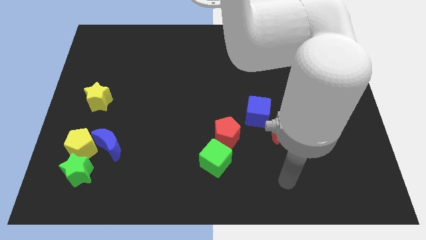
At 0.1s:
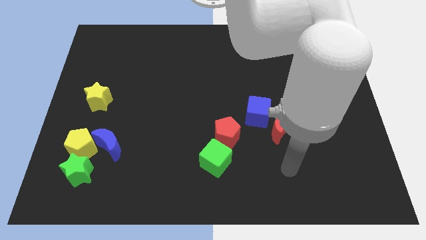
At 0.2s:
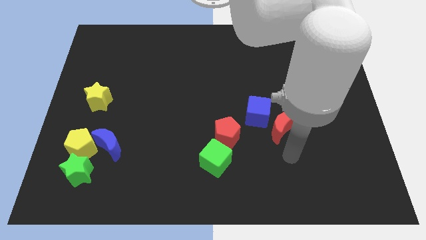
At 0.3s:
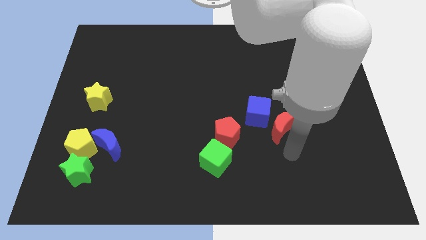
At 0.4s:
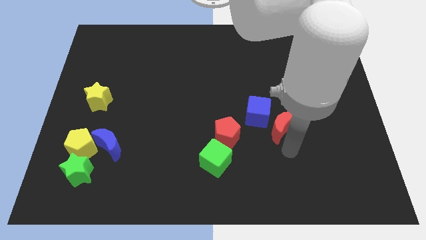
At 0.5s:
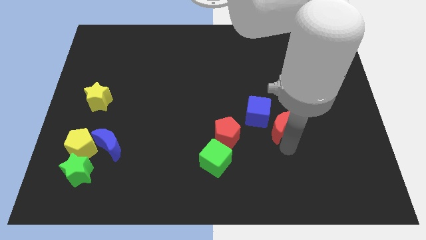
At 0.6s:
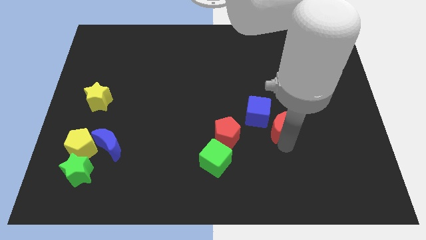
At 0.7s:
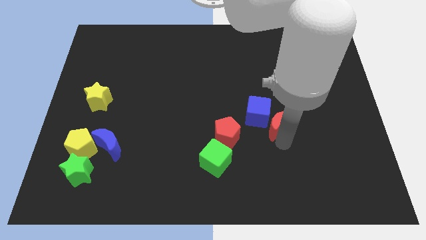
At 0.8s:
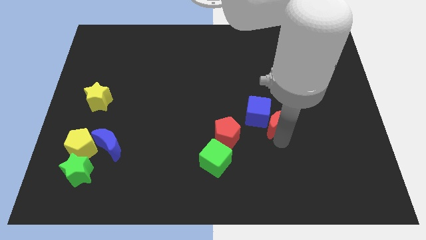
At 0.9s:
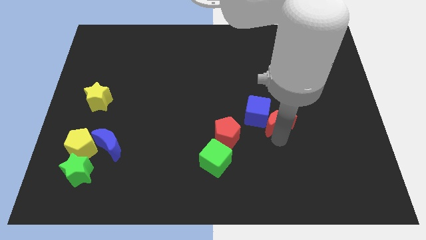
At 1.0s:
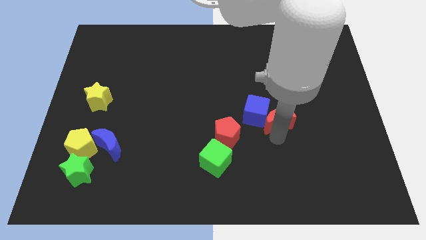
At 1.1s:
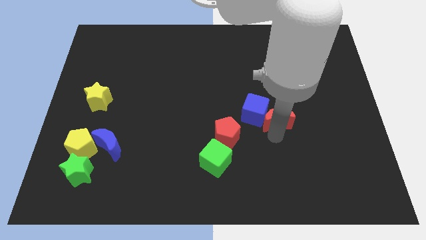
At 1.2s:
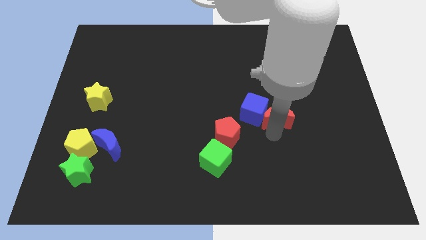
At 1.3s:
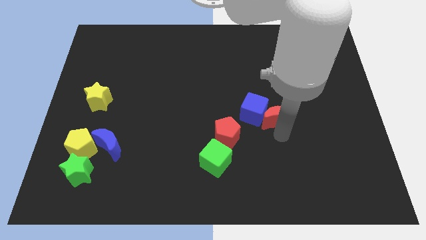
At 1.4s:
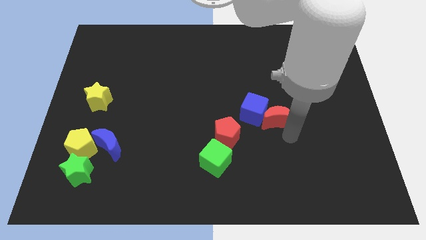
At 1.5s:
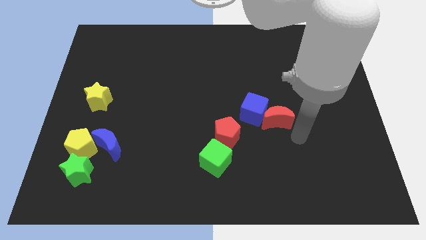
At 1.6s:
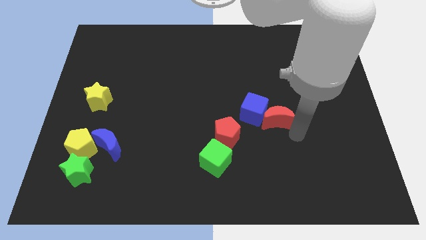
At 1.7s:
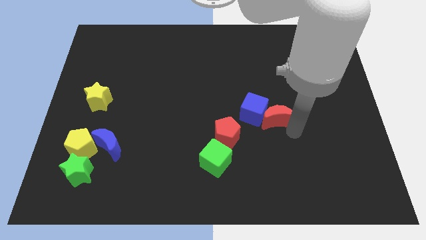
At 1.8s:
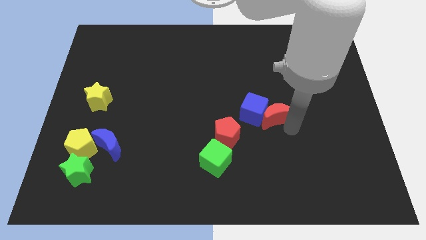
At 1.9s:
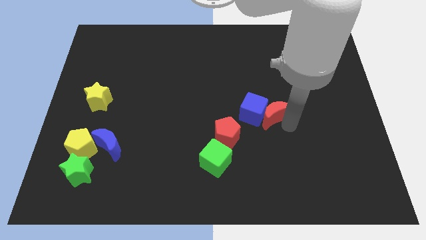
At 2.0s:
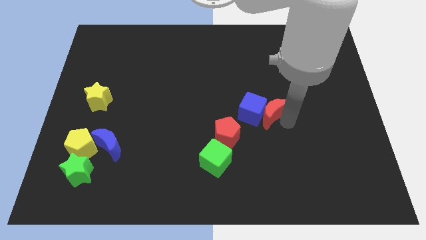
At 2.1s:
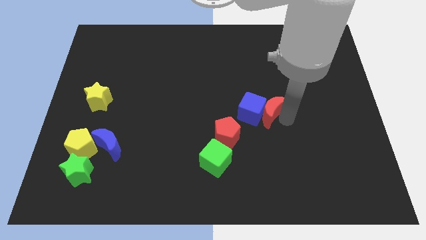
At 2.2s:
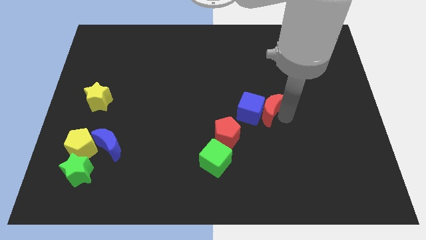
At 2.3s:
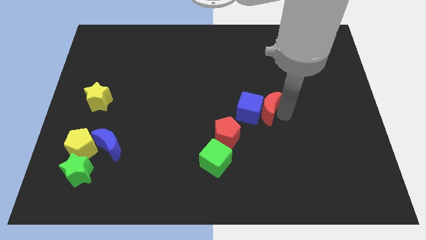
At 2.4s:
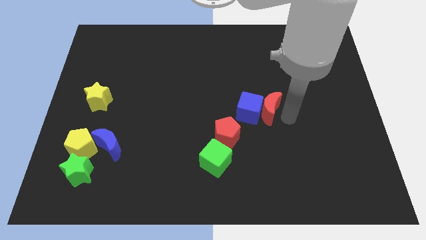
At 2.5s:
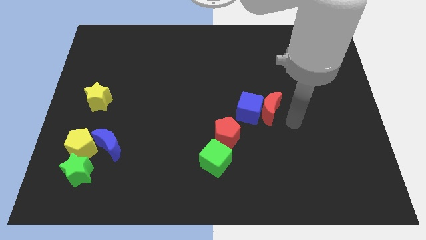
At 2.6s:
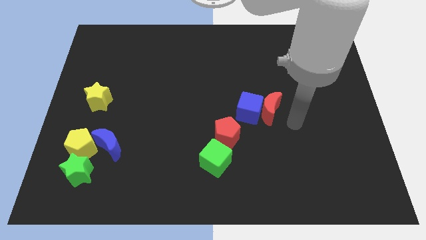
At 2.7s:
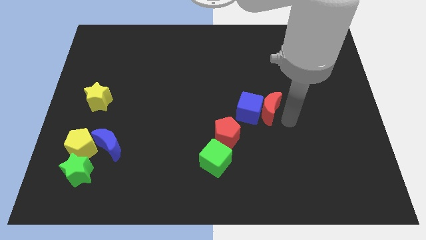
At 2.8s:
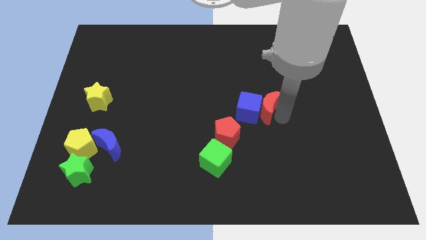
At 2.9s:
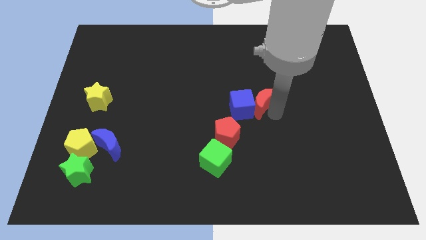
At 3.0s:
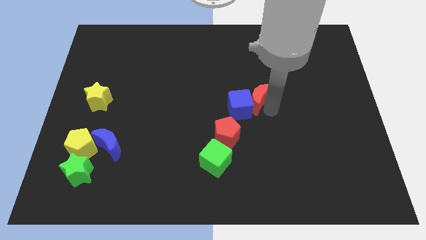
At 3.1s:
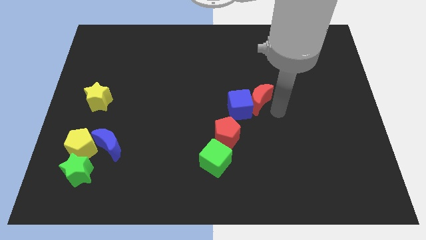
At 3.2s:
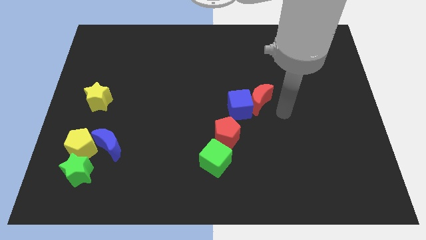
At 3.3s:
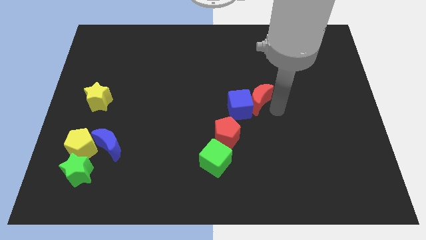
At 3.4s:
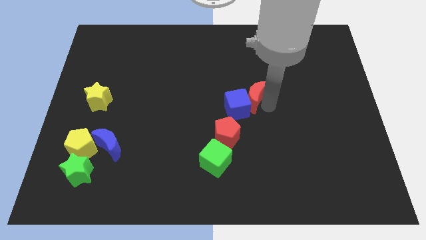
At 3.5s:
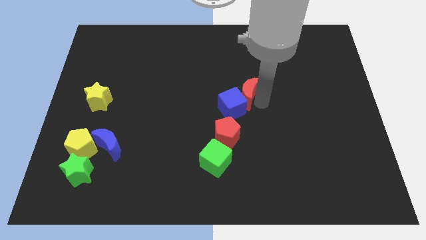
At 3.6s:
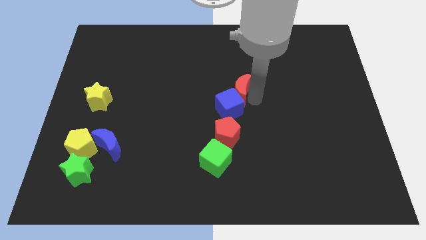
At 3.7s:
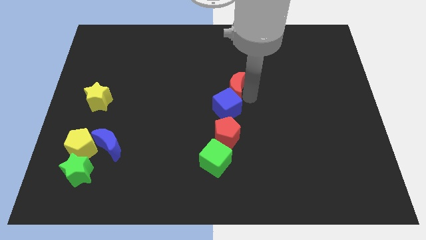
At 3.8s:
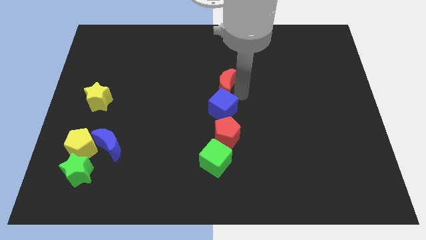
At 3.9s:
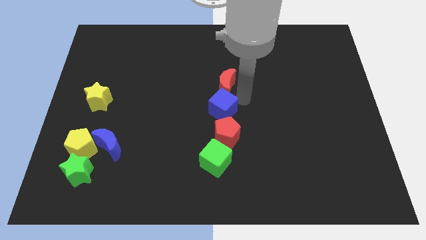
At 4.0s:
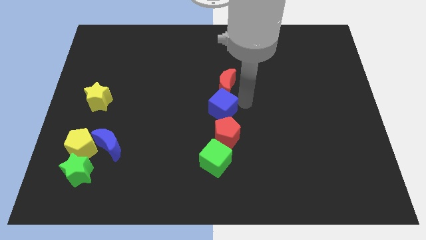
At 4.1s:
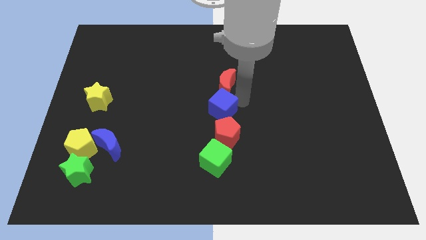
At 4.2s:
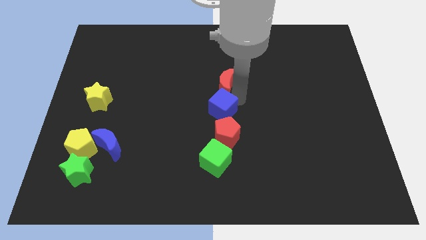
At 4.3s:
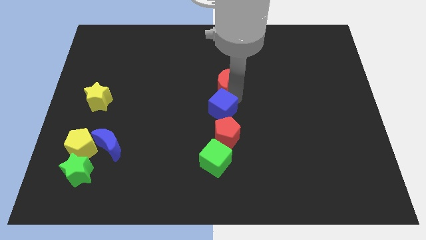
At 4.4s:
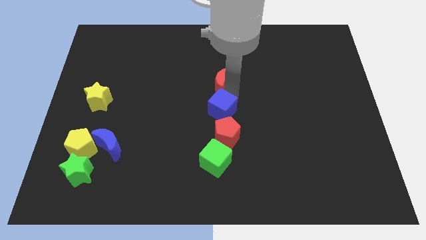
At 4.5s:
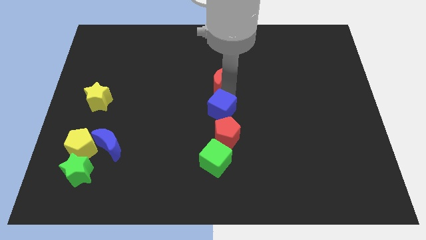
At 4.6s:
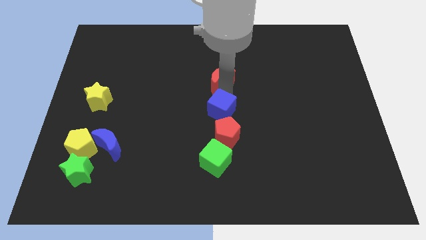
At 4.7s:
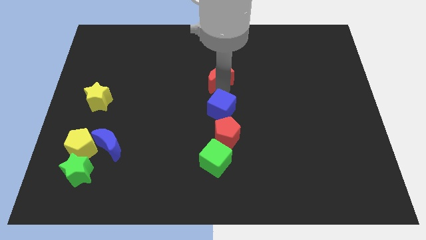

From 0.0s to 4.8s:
slide the red moon upwards and to the left diagonally

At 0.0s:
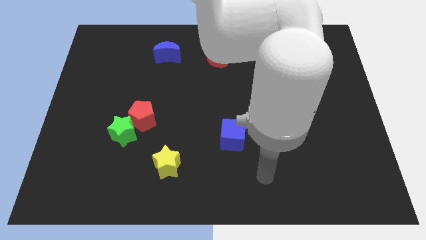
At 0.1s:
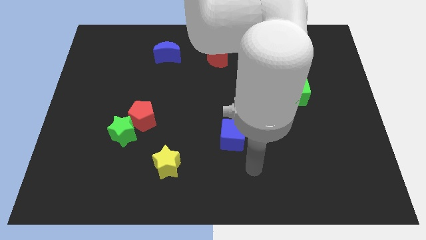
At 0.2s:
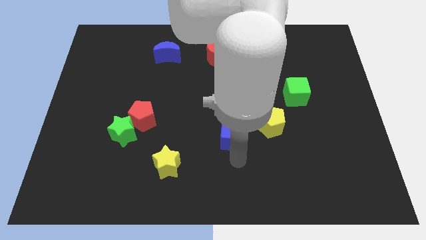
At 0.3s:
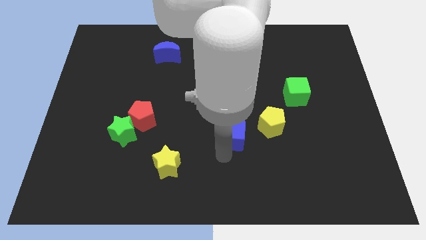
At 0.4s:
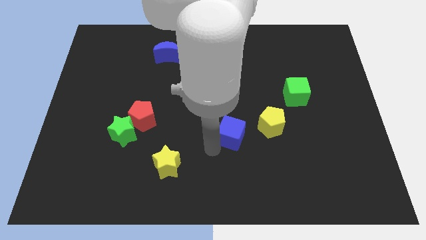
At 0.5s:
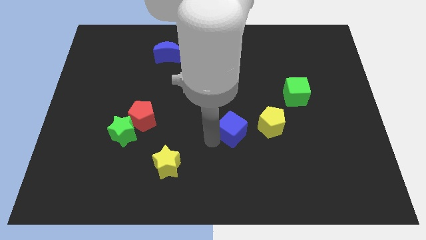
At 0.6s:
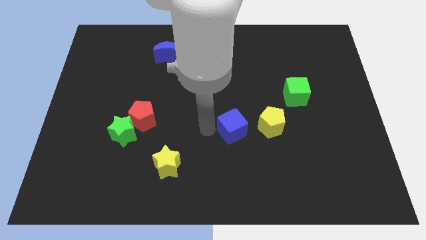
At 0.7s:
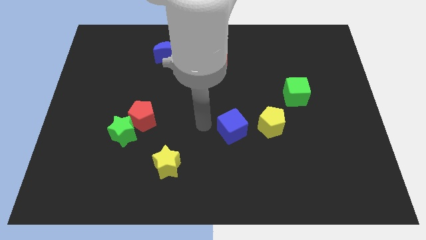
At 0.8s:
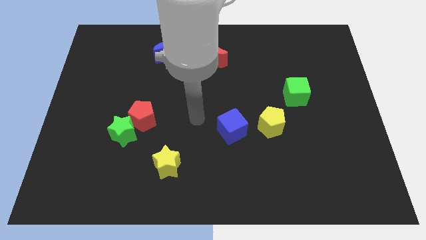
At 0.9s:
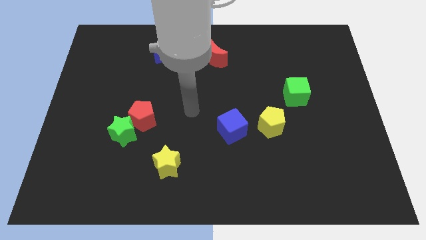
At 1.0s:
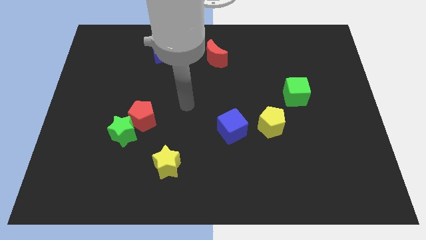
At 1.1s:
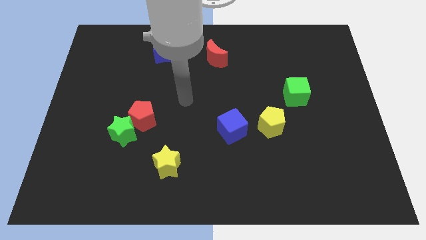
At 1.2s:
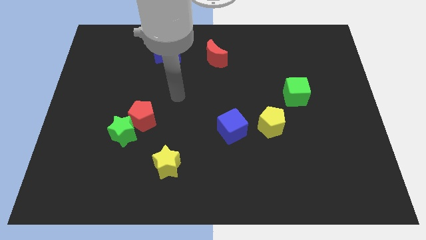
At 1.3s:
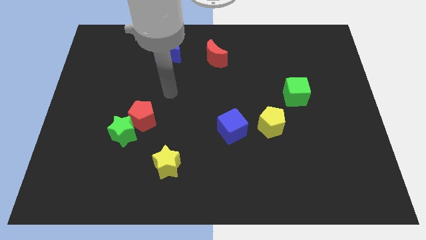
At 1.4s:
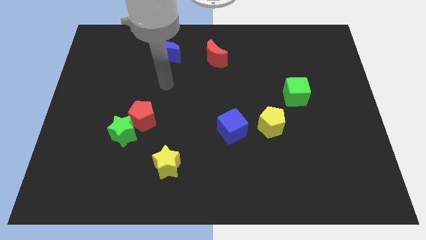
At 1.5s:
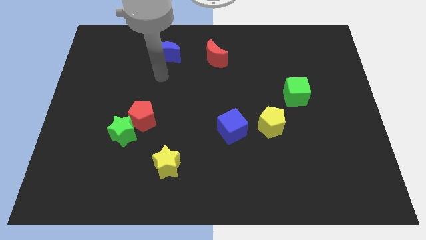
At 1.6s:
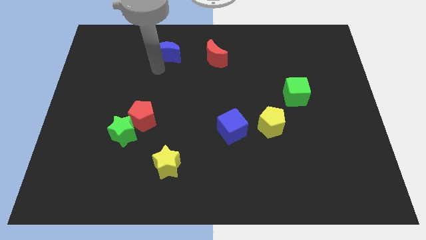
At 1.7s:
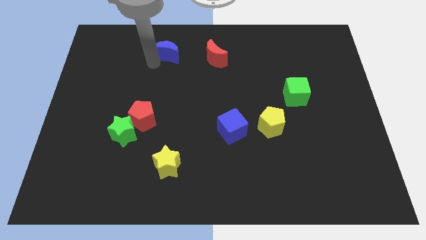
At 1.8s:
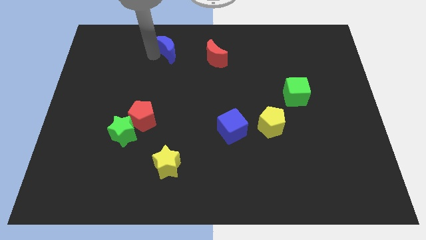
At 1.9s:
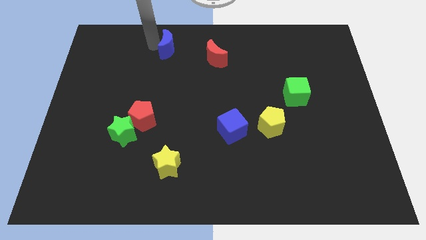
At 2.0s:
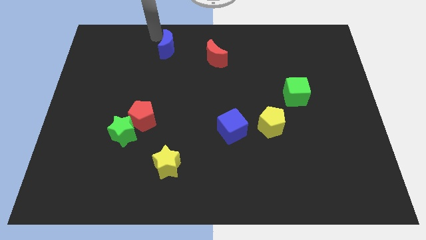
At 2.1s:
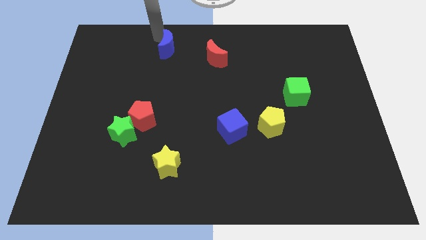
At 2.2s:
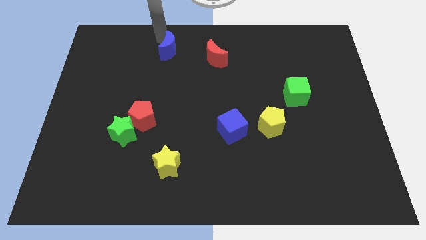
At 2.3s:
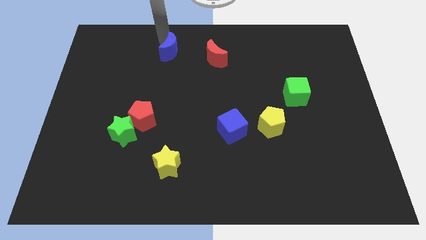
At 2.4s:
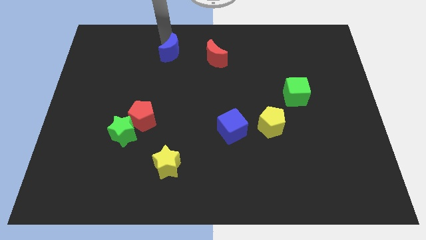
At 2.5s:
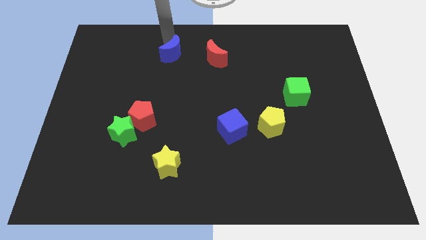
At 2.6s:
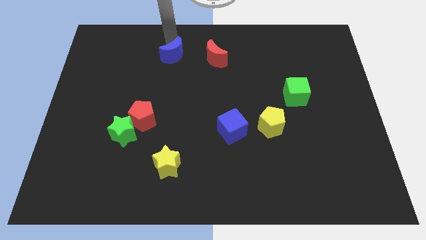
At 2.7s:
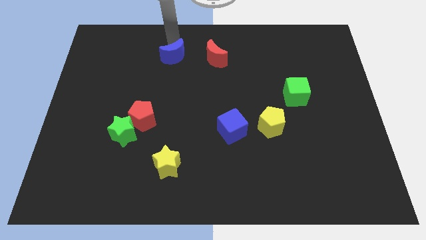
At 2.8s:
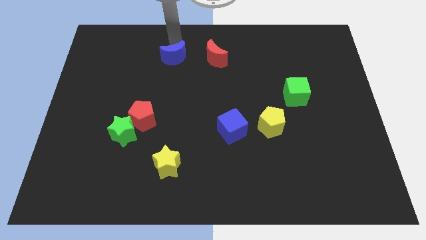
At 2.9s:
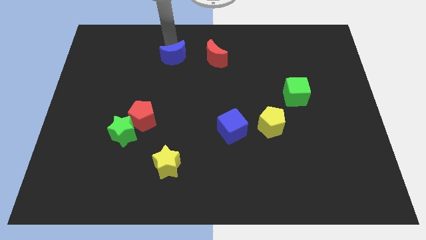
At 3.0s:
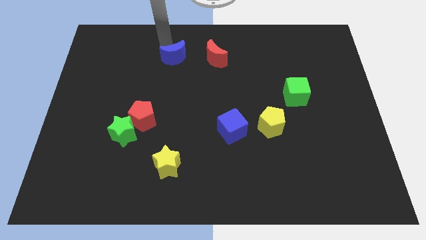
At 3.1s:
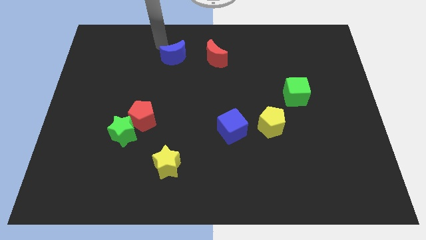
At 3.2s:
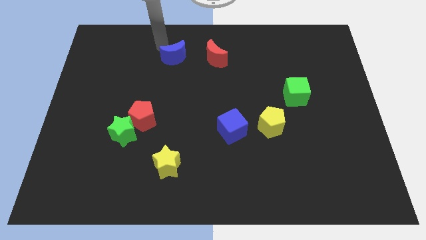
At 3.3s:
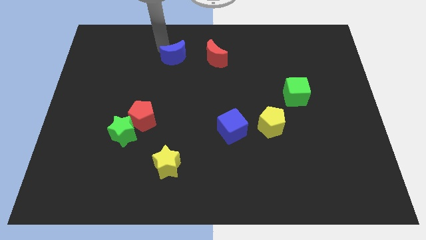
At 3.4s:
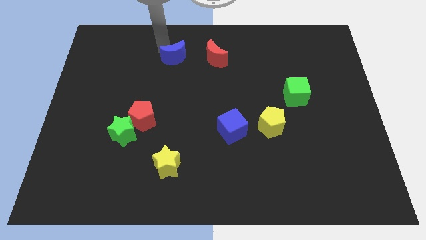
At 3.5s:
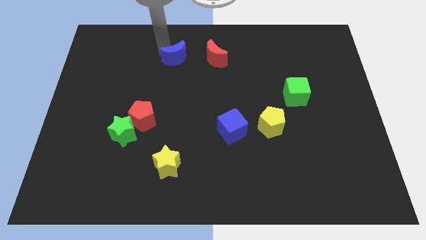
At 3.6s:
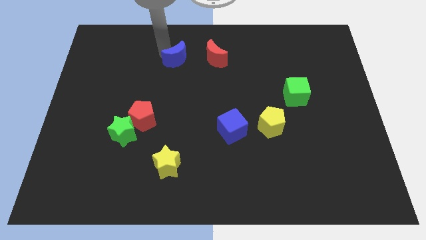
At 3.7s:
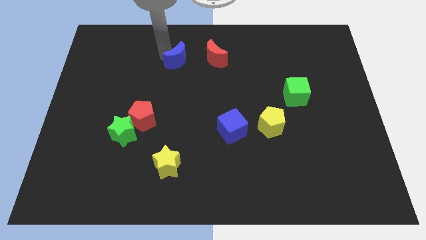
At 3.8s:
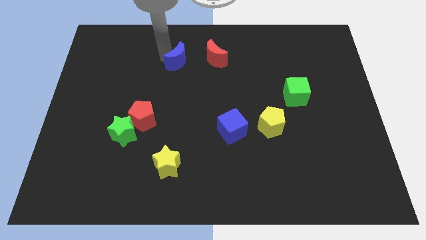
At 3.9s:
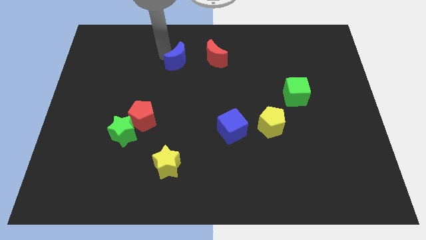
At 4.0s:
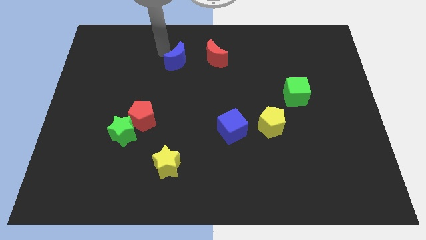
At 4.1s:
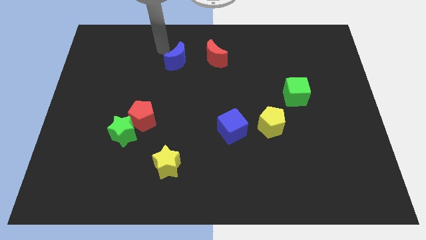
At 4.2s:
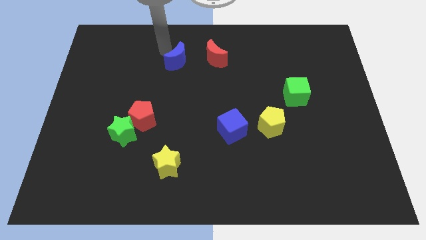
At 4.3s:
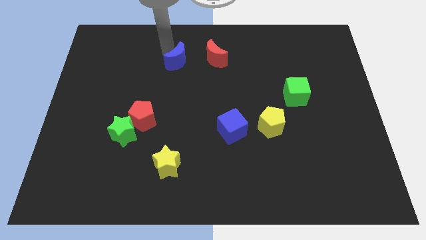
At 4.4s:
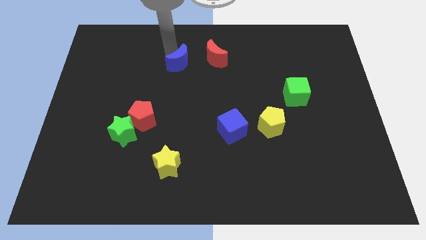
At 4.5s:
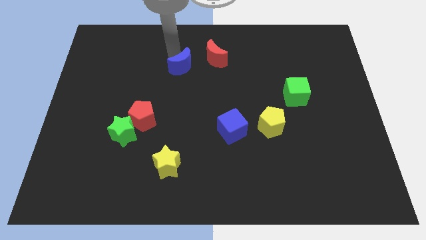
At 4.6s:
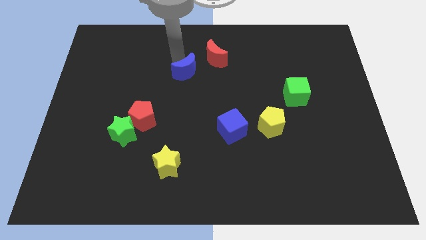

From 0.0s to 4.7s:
move the blue moon a little down and to the right
